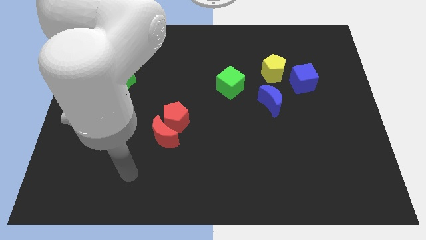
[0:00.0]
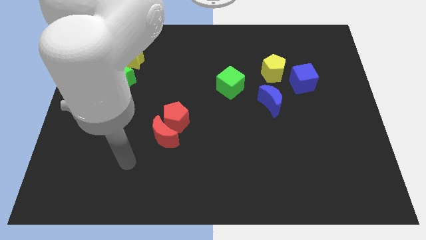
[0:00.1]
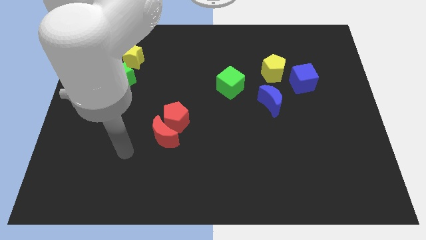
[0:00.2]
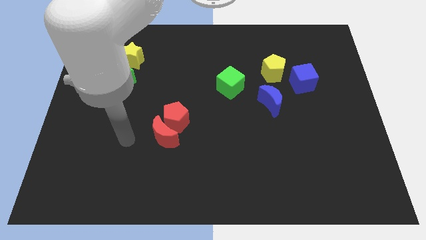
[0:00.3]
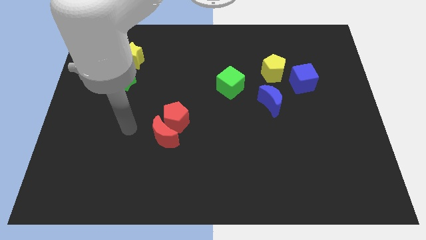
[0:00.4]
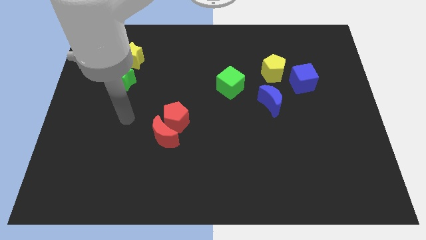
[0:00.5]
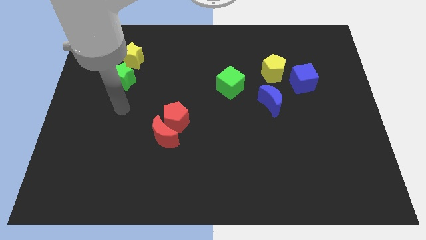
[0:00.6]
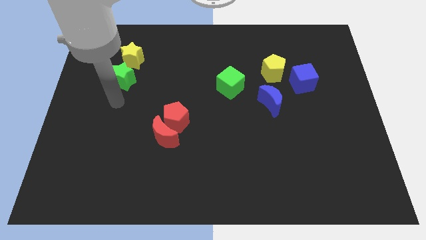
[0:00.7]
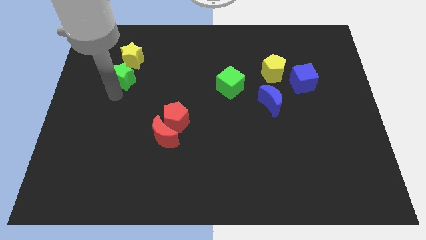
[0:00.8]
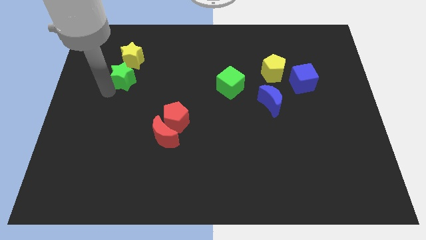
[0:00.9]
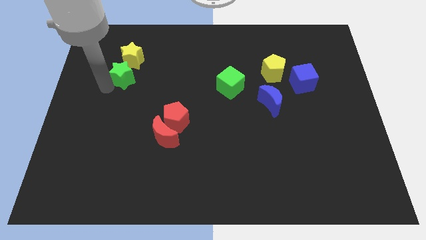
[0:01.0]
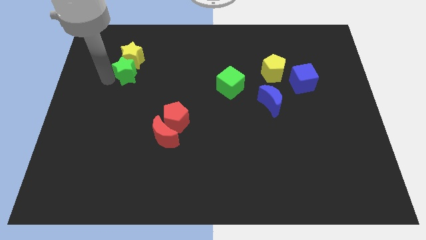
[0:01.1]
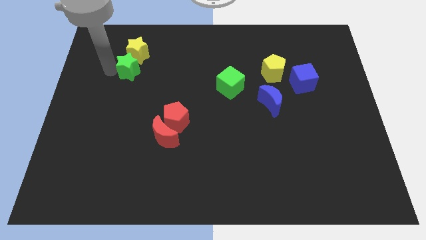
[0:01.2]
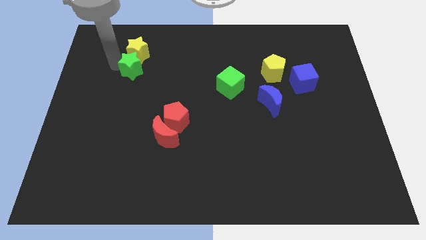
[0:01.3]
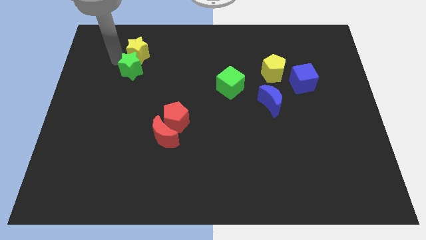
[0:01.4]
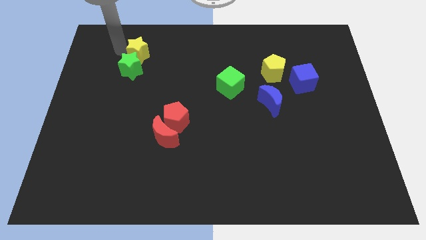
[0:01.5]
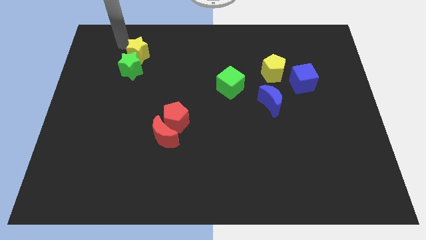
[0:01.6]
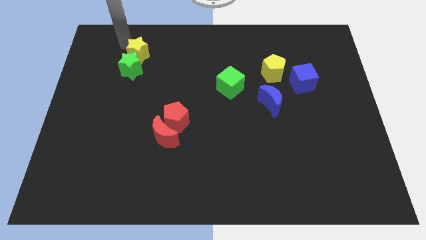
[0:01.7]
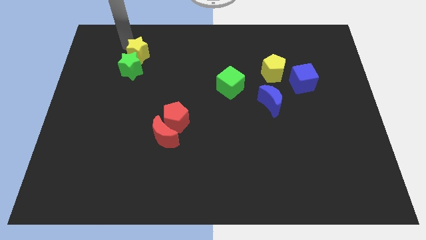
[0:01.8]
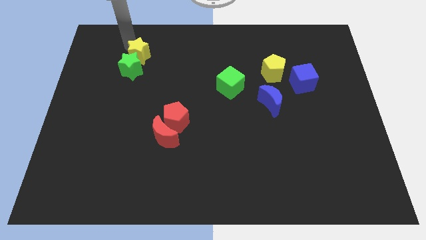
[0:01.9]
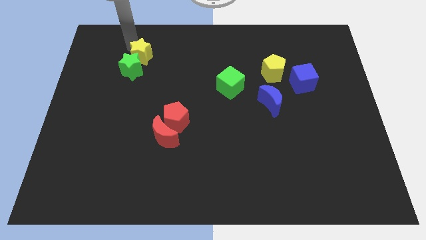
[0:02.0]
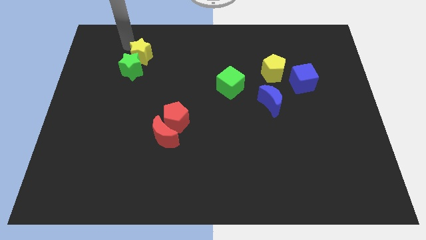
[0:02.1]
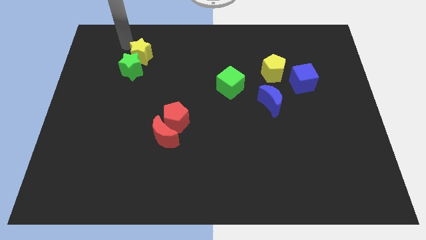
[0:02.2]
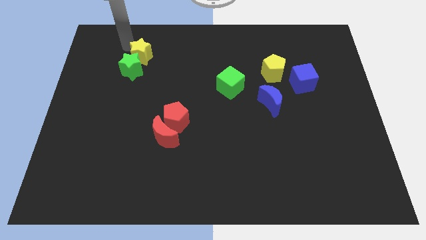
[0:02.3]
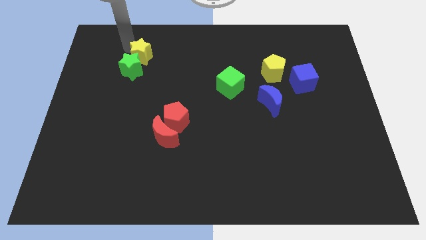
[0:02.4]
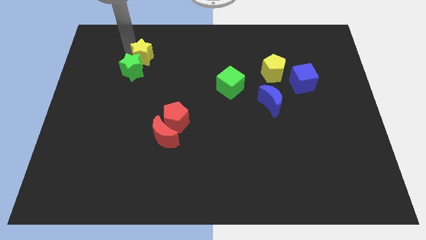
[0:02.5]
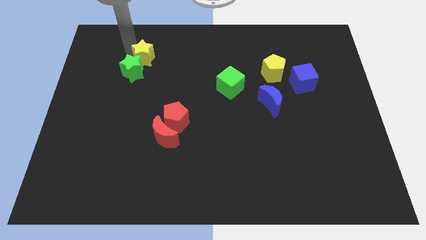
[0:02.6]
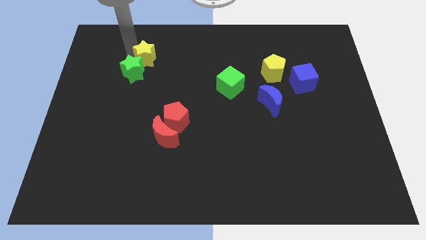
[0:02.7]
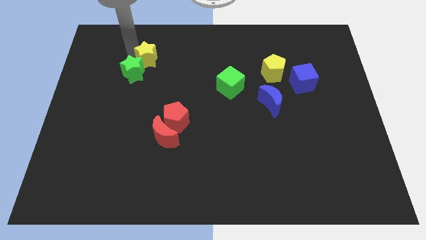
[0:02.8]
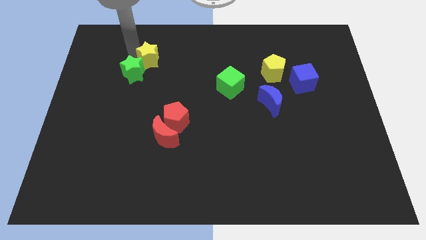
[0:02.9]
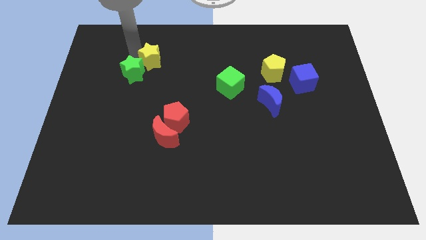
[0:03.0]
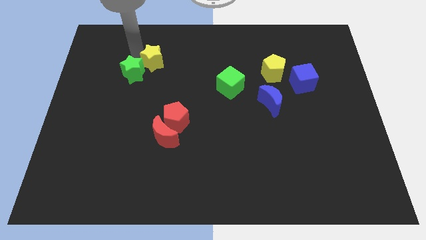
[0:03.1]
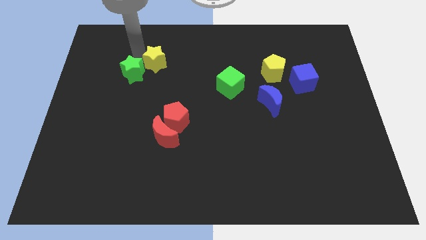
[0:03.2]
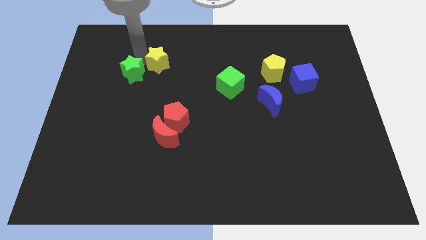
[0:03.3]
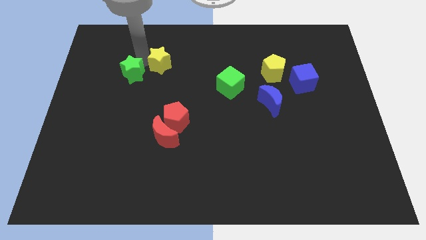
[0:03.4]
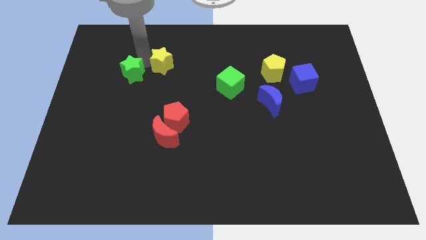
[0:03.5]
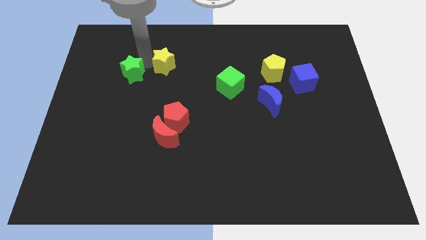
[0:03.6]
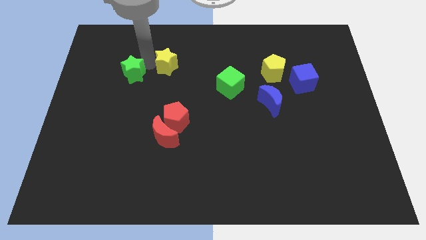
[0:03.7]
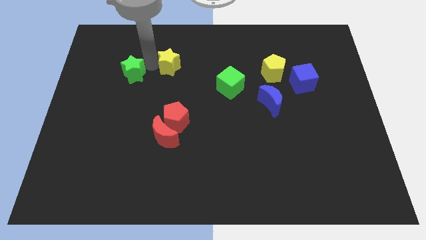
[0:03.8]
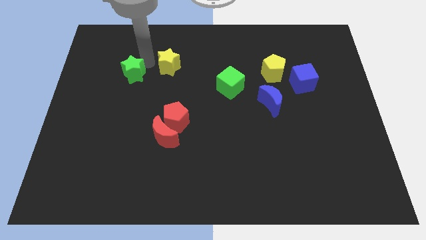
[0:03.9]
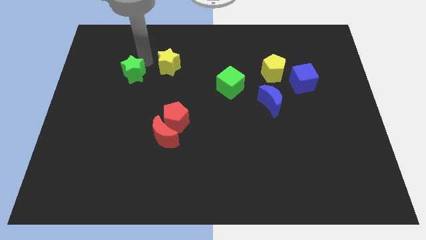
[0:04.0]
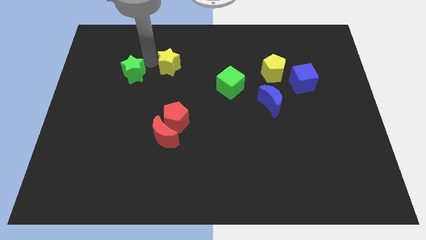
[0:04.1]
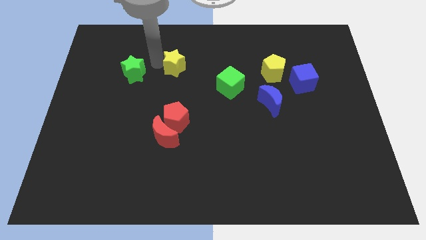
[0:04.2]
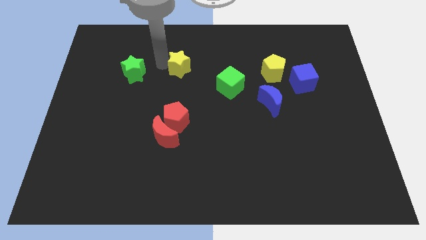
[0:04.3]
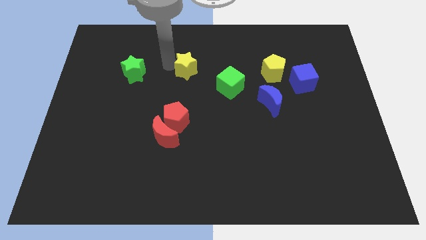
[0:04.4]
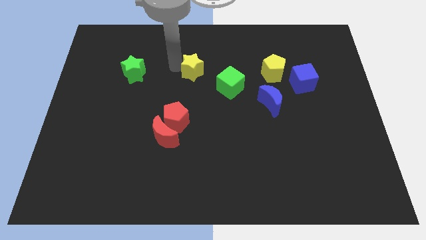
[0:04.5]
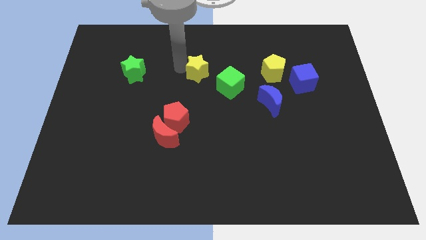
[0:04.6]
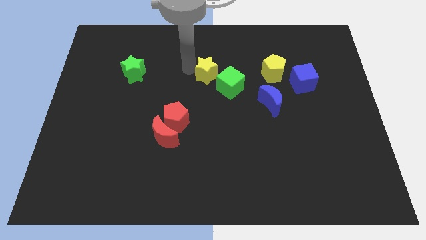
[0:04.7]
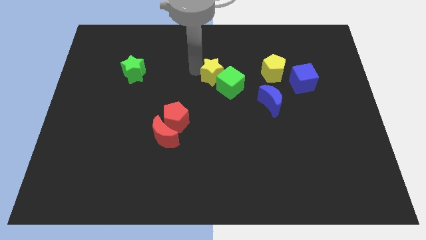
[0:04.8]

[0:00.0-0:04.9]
slide the yellow star towards the green cube
